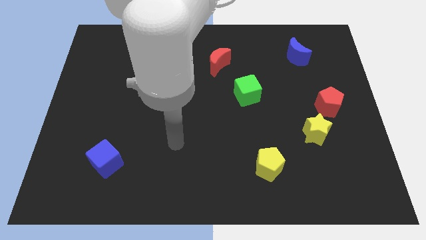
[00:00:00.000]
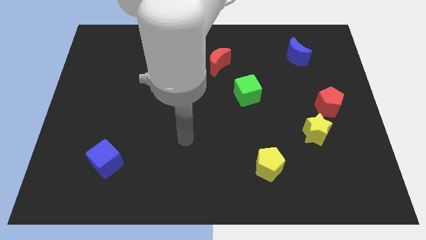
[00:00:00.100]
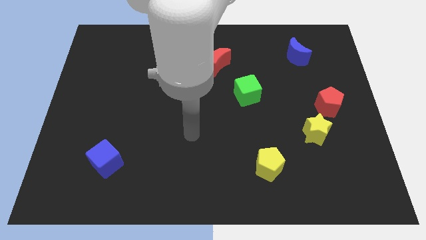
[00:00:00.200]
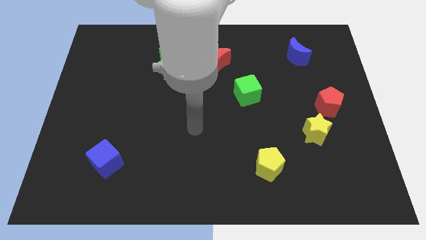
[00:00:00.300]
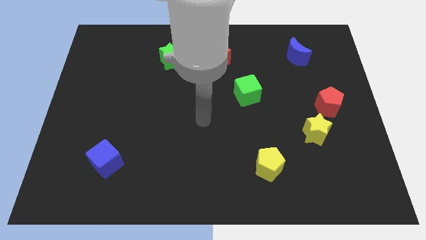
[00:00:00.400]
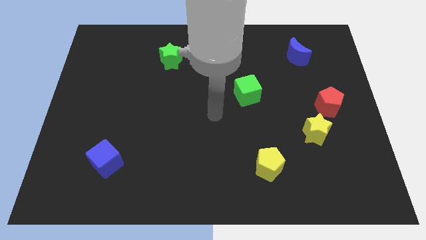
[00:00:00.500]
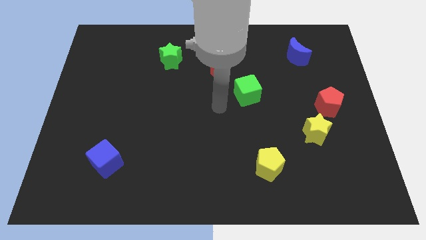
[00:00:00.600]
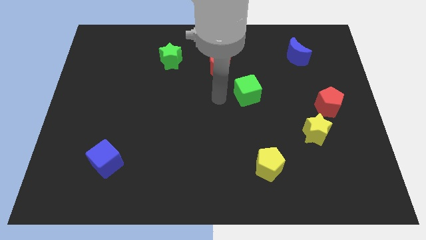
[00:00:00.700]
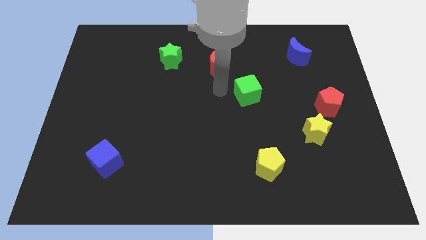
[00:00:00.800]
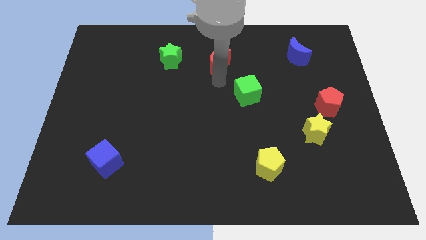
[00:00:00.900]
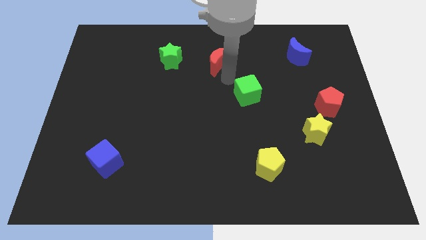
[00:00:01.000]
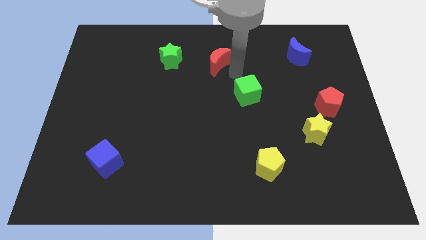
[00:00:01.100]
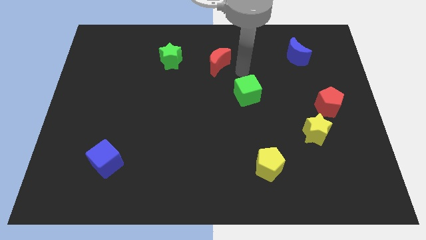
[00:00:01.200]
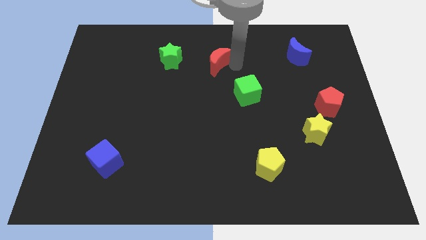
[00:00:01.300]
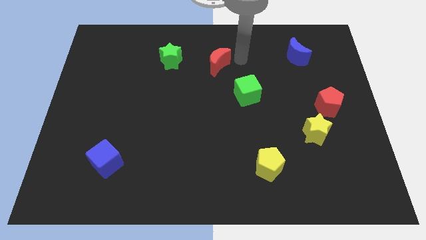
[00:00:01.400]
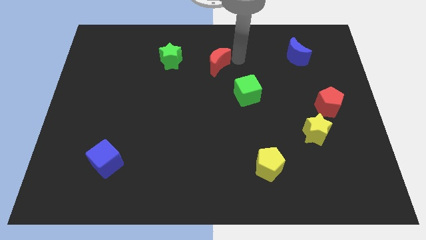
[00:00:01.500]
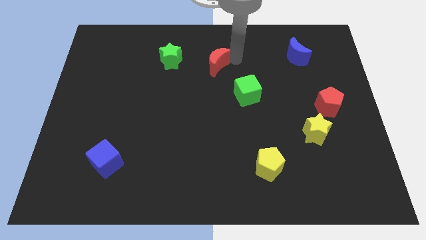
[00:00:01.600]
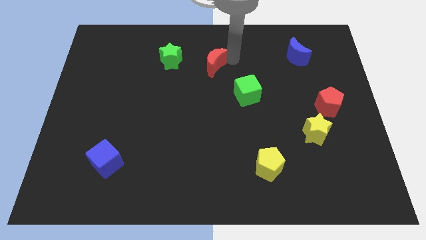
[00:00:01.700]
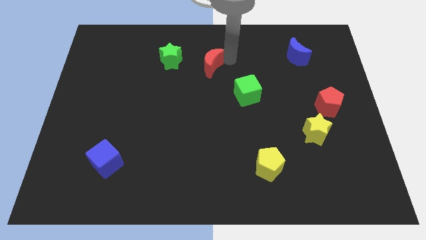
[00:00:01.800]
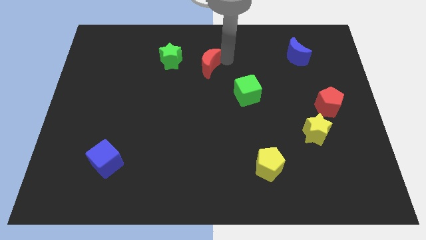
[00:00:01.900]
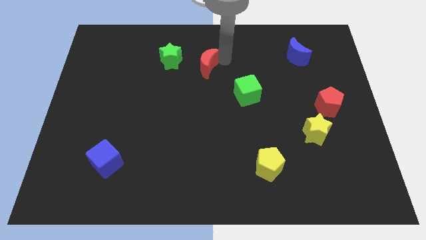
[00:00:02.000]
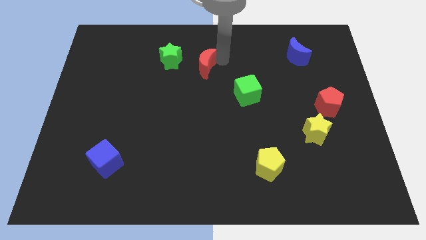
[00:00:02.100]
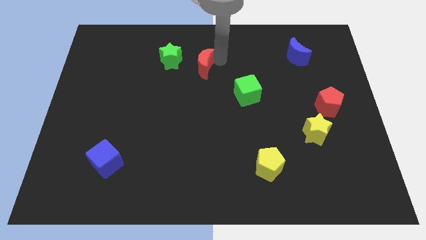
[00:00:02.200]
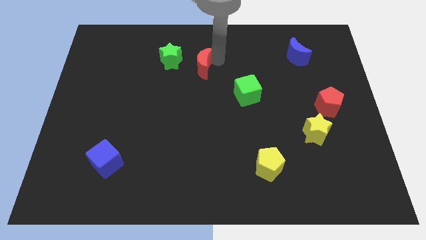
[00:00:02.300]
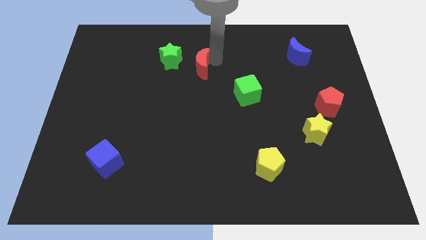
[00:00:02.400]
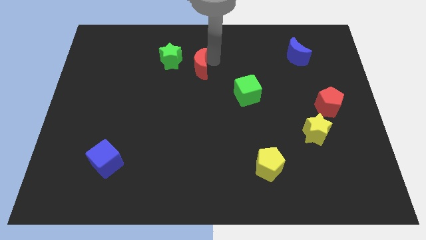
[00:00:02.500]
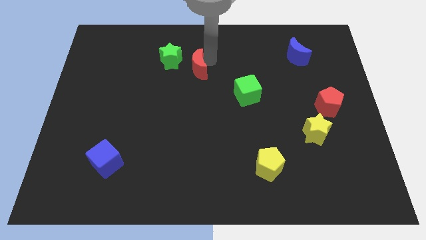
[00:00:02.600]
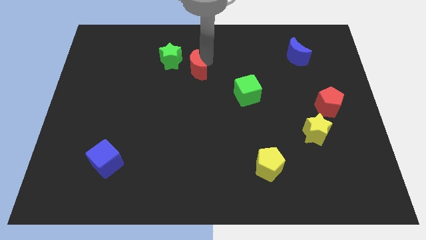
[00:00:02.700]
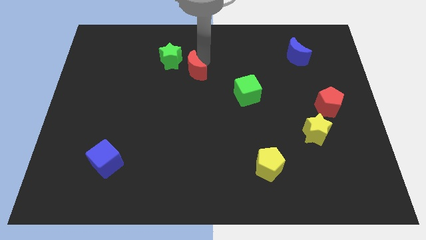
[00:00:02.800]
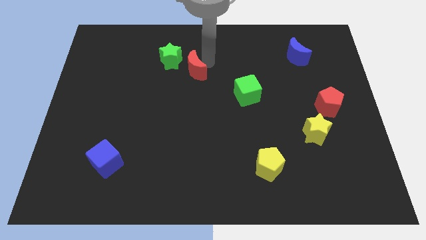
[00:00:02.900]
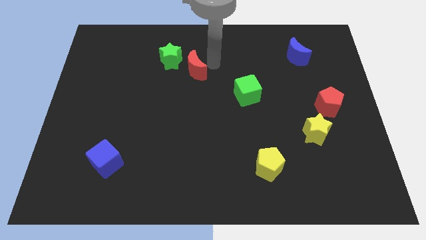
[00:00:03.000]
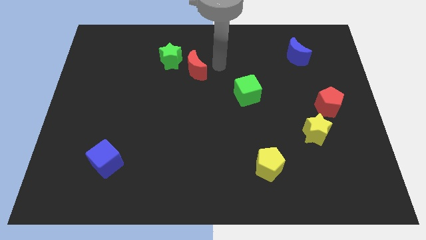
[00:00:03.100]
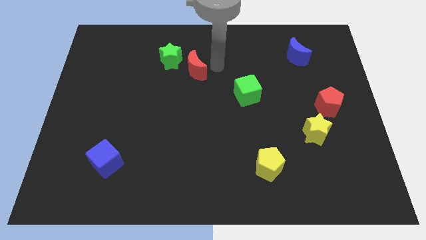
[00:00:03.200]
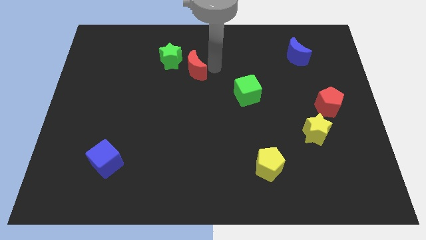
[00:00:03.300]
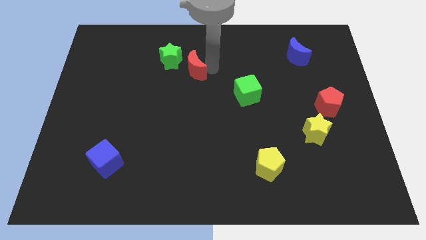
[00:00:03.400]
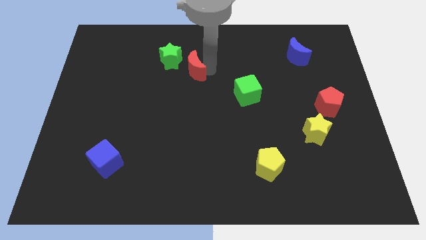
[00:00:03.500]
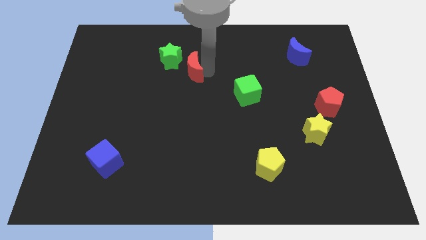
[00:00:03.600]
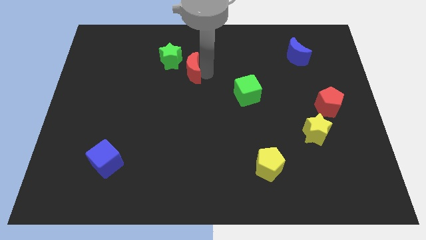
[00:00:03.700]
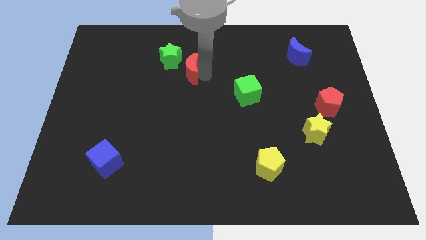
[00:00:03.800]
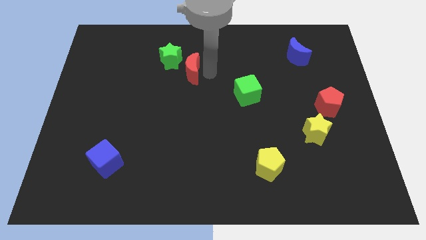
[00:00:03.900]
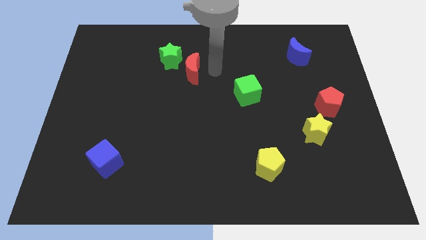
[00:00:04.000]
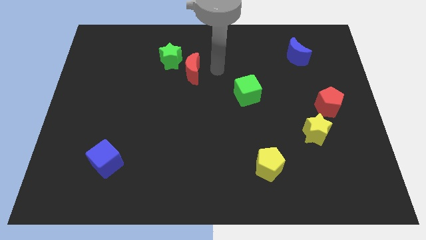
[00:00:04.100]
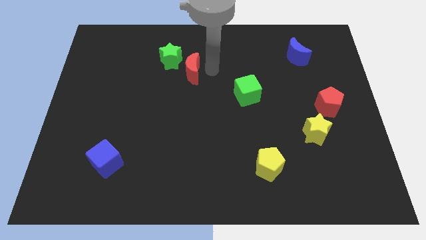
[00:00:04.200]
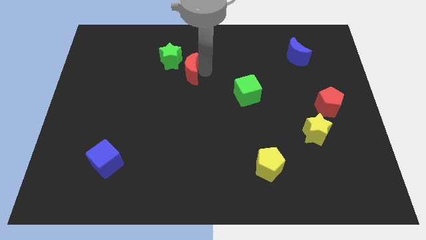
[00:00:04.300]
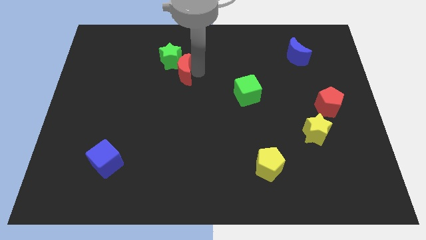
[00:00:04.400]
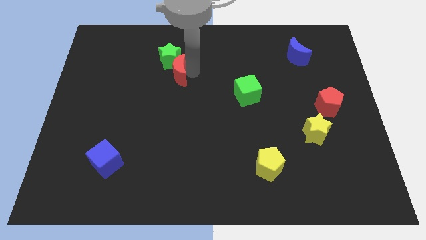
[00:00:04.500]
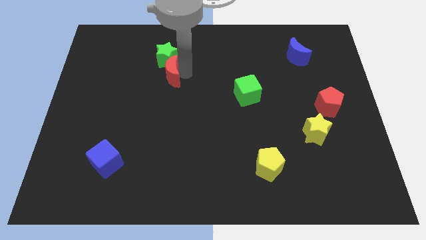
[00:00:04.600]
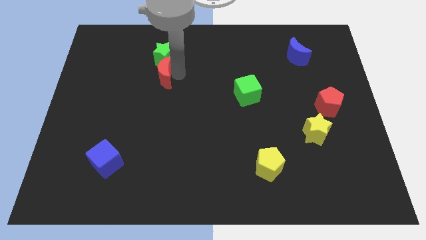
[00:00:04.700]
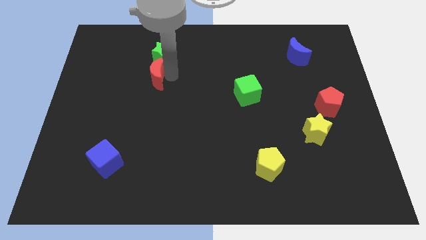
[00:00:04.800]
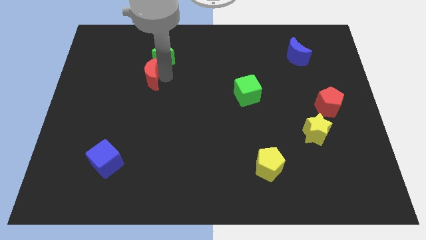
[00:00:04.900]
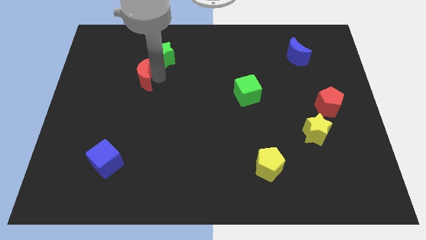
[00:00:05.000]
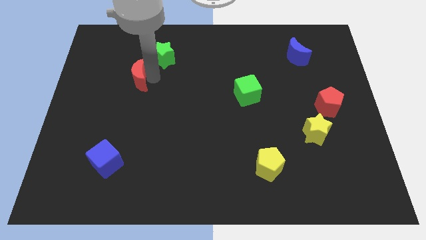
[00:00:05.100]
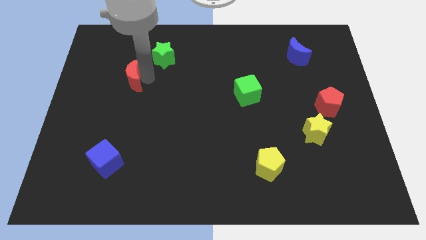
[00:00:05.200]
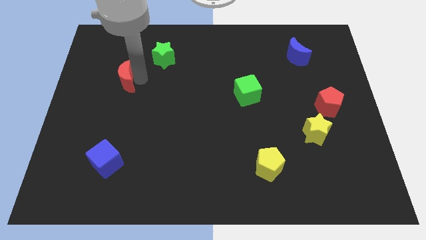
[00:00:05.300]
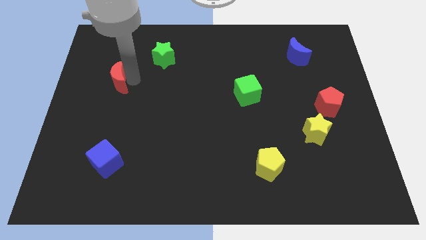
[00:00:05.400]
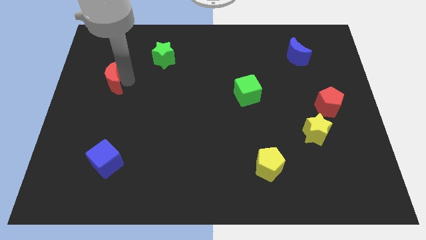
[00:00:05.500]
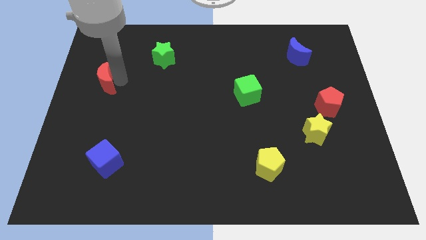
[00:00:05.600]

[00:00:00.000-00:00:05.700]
slide the red moon to the center left

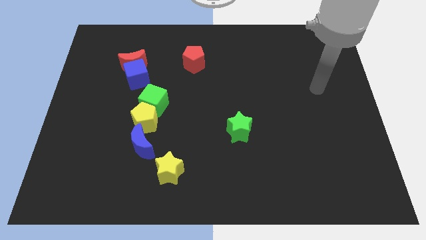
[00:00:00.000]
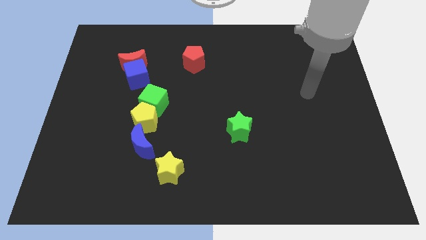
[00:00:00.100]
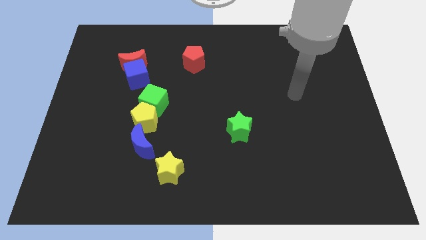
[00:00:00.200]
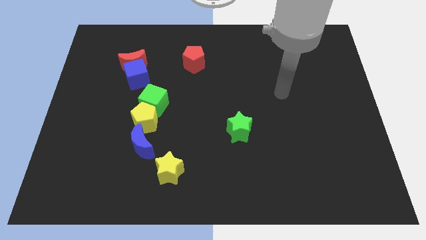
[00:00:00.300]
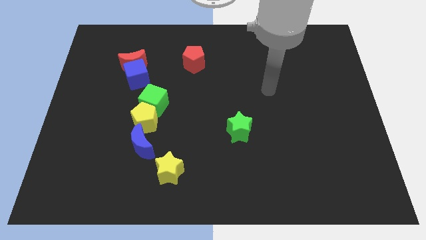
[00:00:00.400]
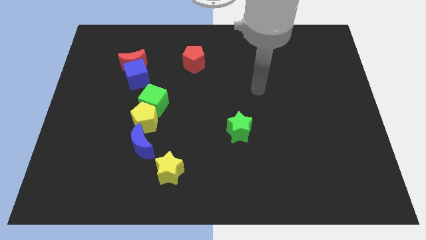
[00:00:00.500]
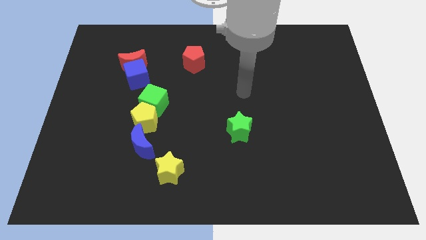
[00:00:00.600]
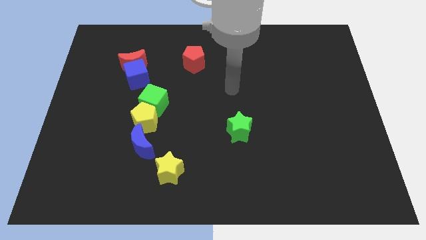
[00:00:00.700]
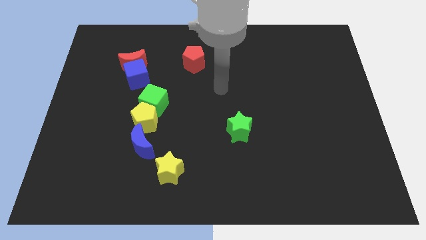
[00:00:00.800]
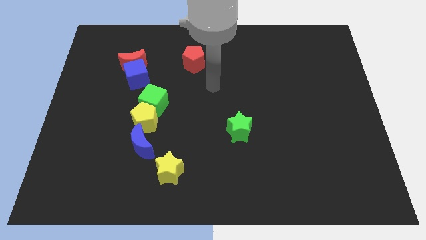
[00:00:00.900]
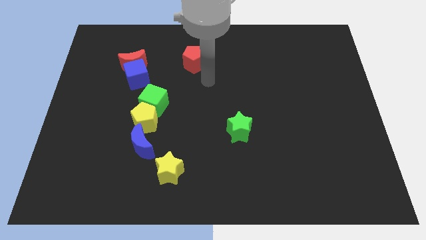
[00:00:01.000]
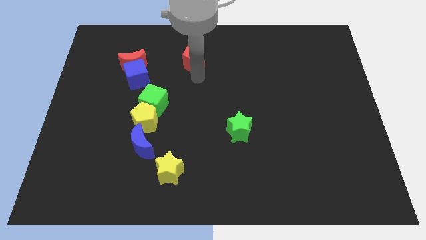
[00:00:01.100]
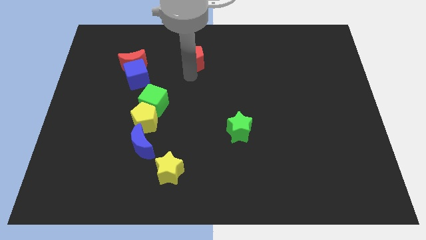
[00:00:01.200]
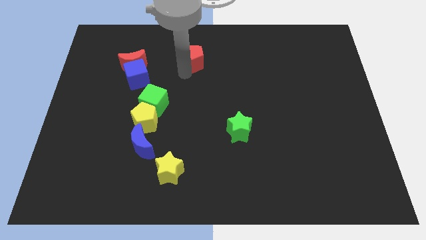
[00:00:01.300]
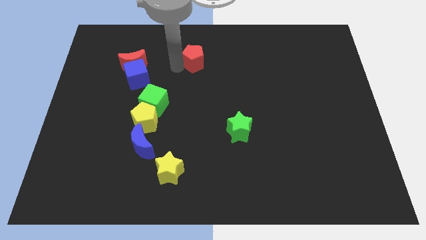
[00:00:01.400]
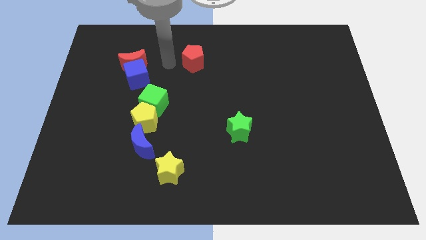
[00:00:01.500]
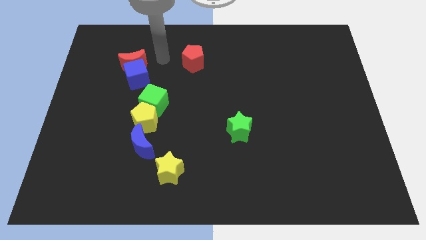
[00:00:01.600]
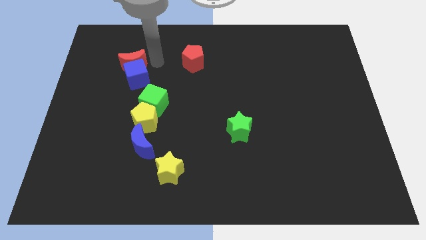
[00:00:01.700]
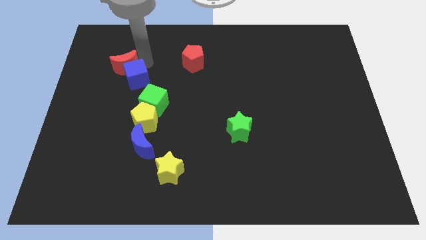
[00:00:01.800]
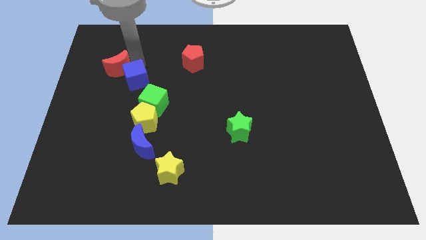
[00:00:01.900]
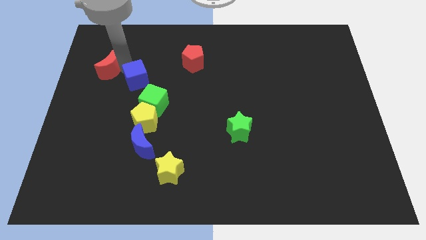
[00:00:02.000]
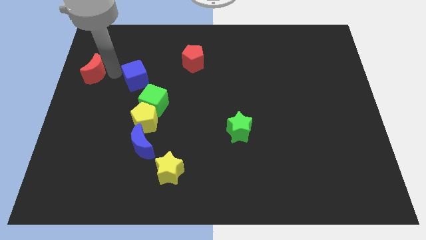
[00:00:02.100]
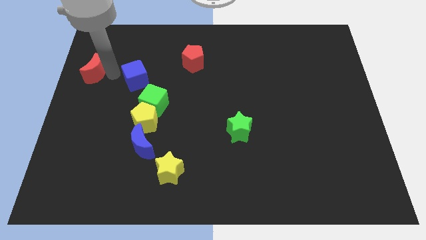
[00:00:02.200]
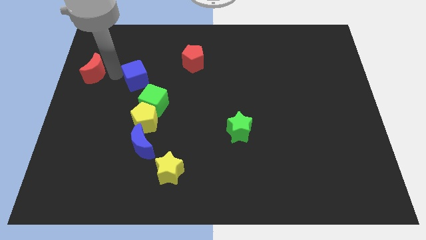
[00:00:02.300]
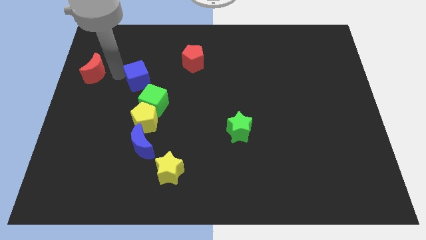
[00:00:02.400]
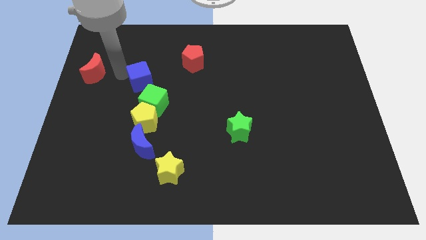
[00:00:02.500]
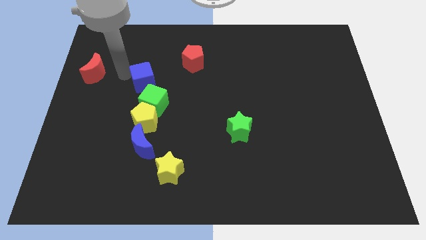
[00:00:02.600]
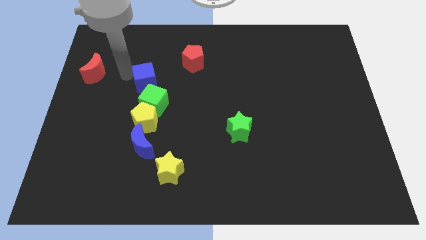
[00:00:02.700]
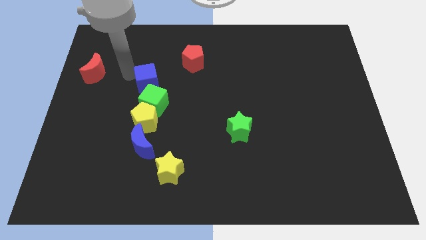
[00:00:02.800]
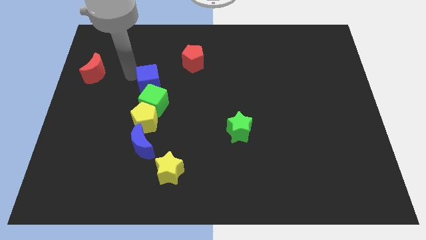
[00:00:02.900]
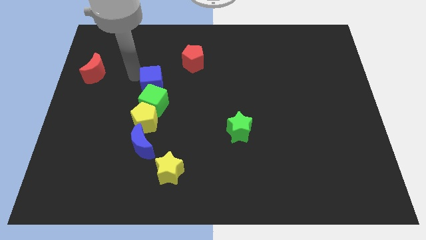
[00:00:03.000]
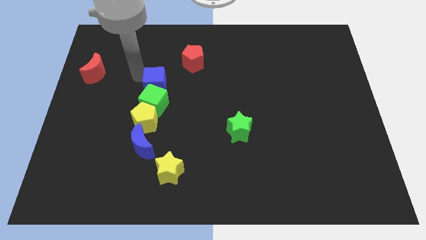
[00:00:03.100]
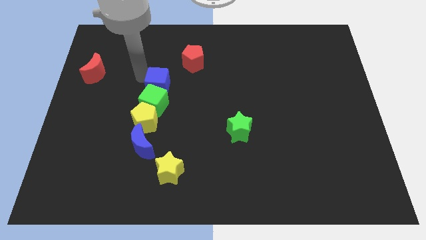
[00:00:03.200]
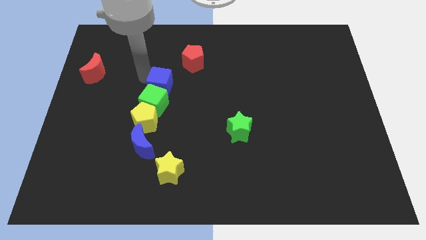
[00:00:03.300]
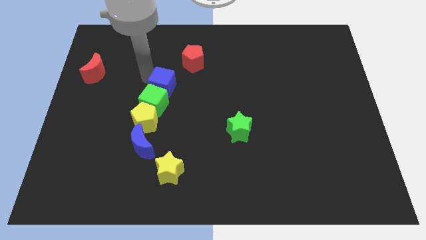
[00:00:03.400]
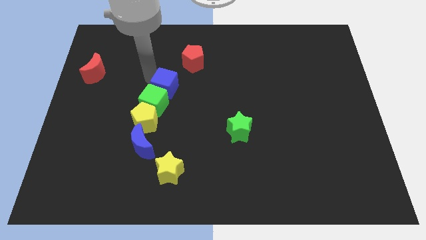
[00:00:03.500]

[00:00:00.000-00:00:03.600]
put the blue cube to the middle
